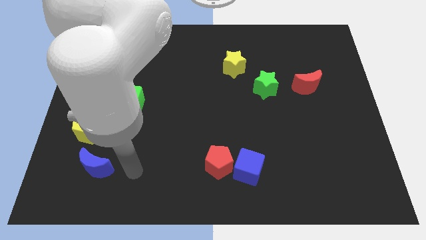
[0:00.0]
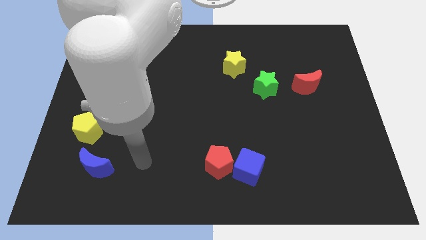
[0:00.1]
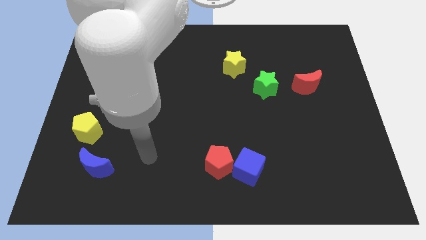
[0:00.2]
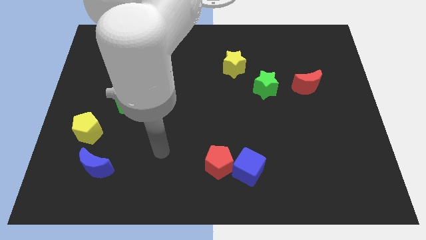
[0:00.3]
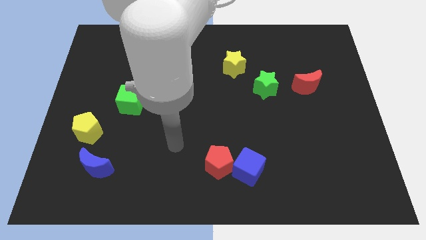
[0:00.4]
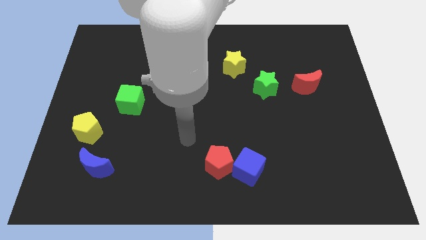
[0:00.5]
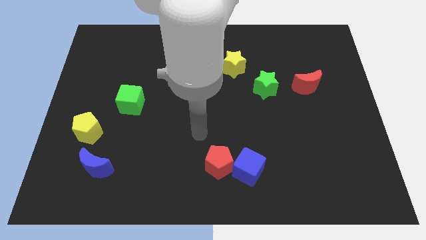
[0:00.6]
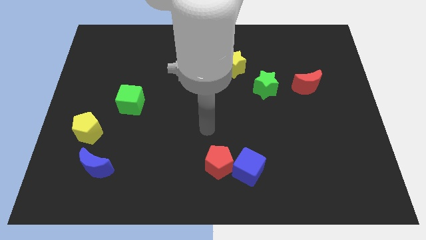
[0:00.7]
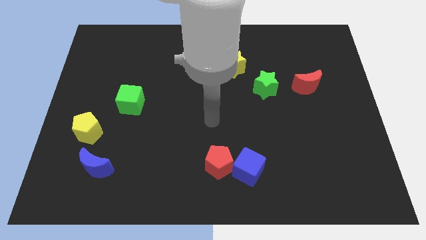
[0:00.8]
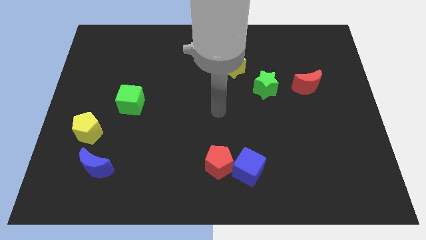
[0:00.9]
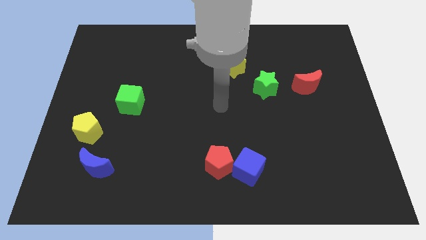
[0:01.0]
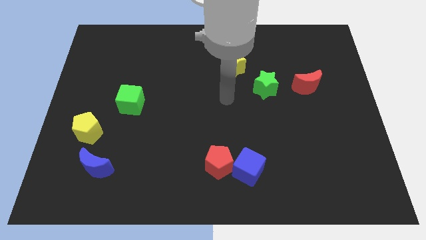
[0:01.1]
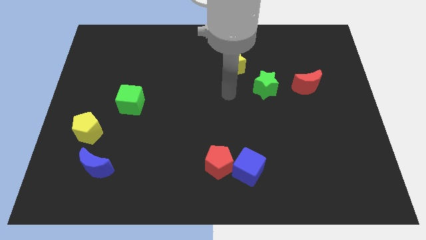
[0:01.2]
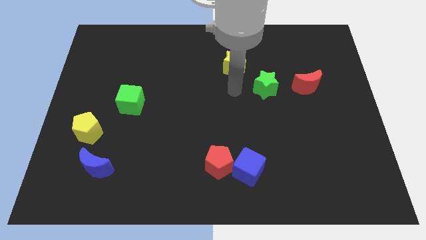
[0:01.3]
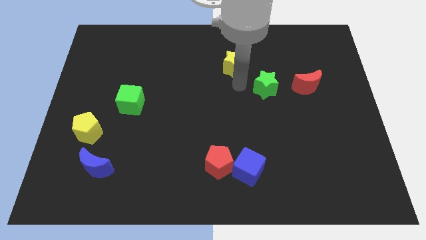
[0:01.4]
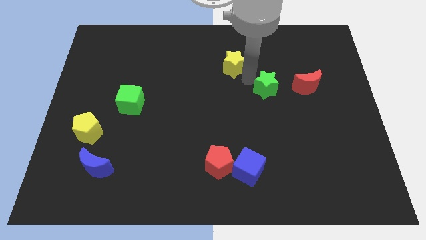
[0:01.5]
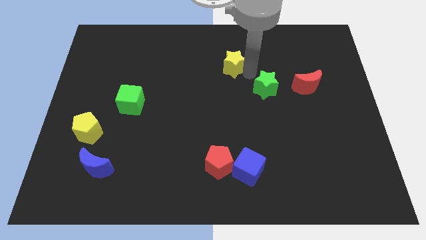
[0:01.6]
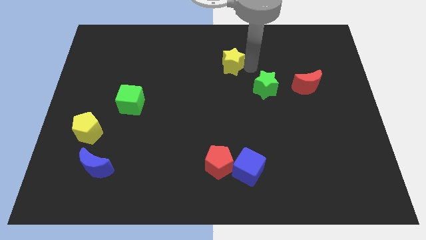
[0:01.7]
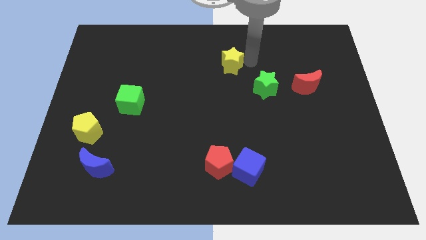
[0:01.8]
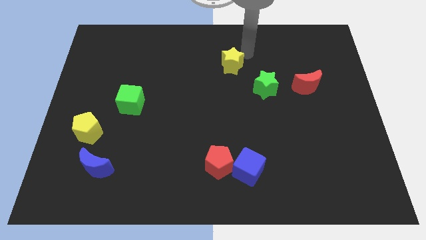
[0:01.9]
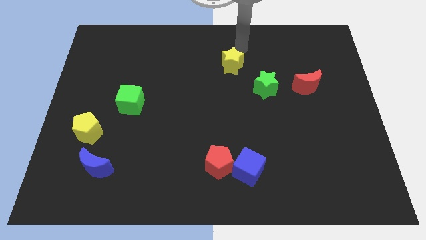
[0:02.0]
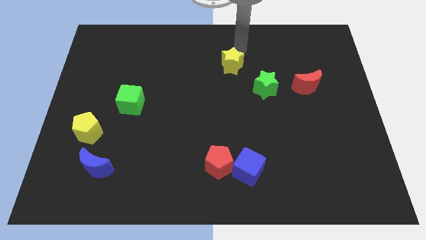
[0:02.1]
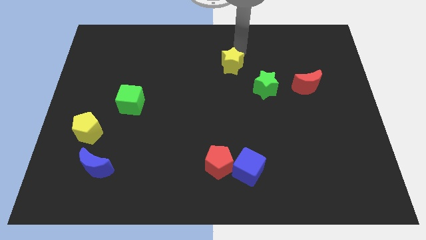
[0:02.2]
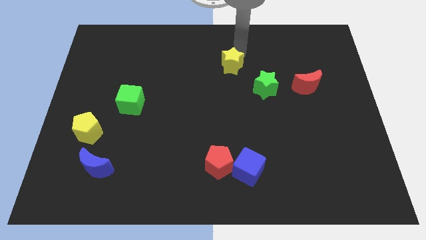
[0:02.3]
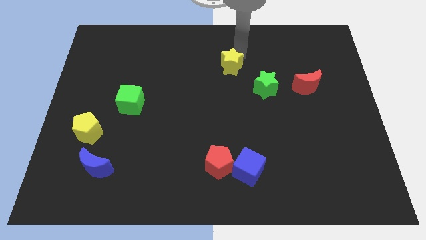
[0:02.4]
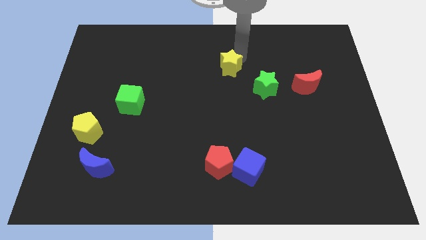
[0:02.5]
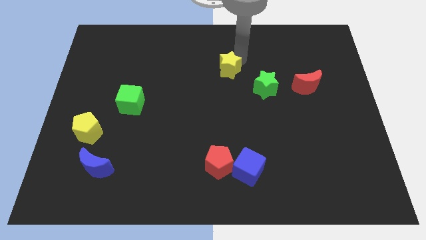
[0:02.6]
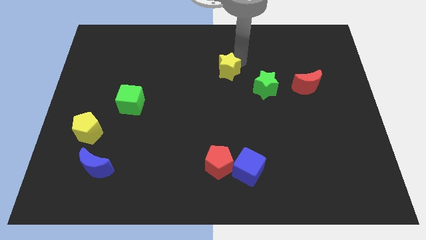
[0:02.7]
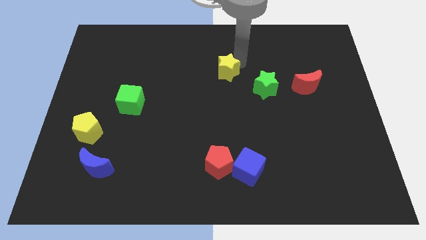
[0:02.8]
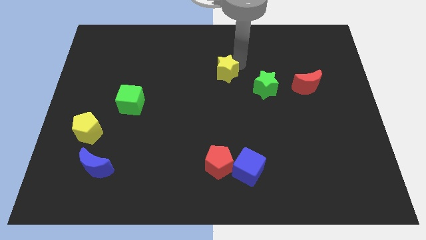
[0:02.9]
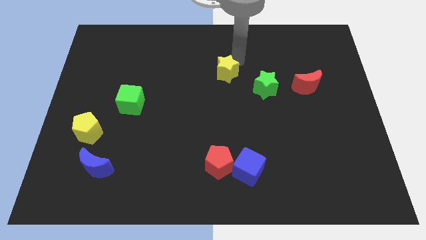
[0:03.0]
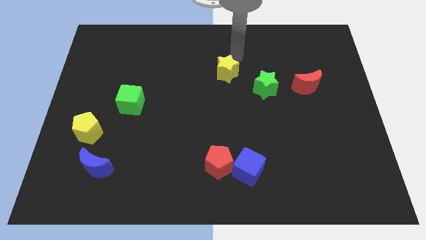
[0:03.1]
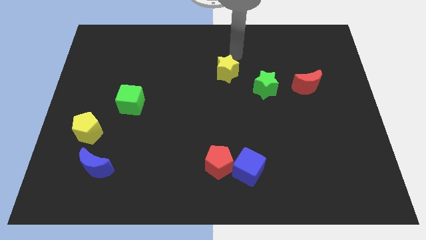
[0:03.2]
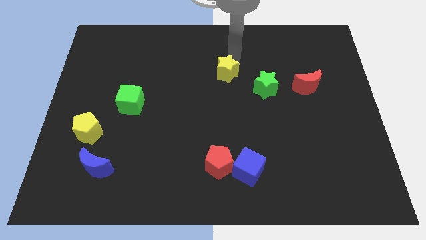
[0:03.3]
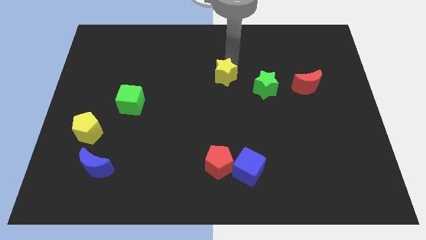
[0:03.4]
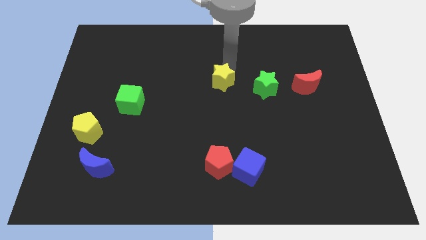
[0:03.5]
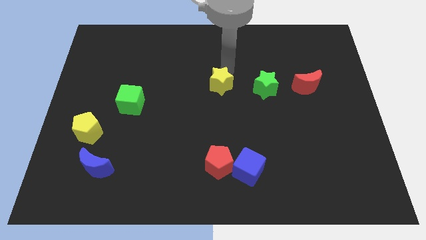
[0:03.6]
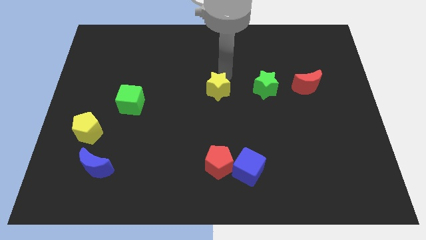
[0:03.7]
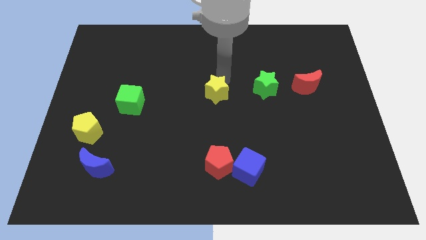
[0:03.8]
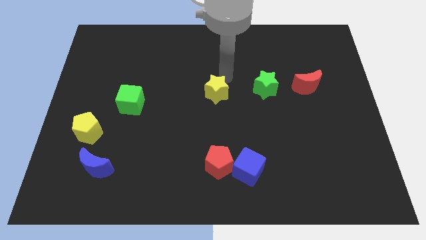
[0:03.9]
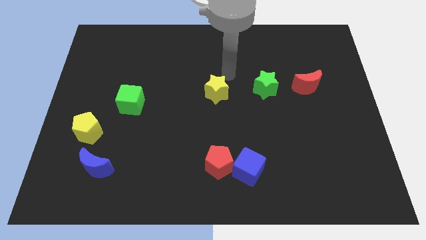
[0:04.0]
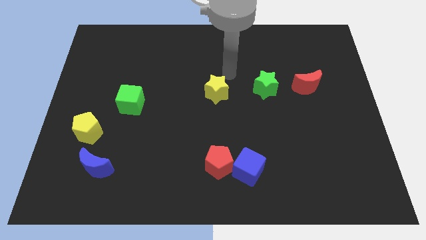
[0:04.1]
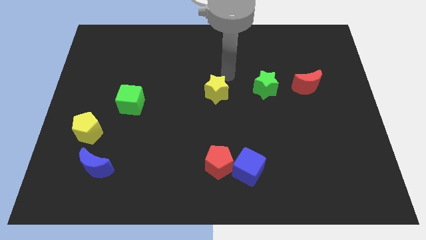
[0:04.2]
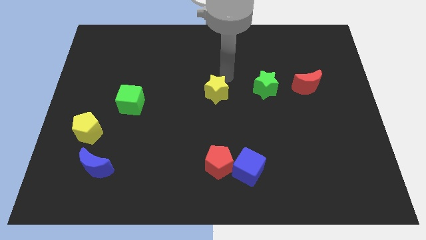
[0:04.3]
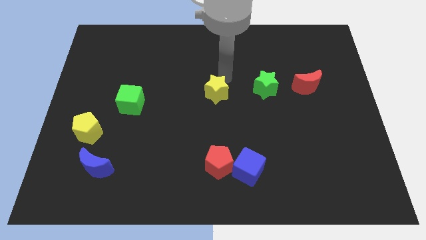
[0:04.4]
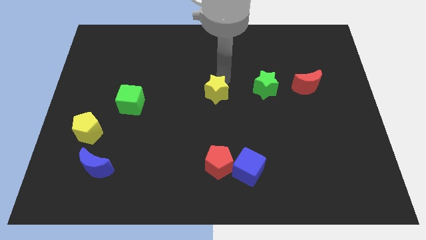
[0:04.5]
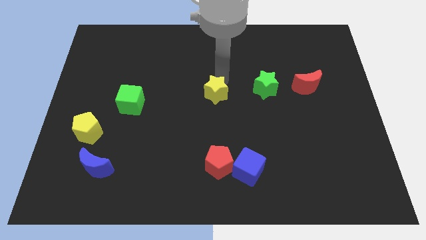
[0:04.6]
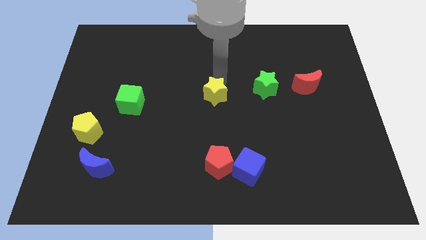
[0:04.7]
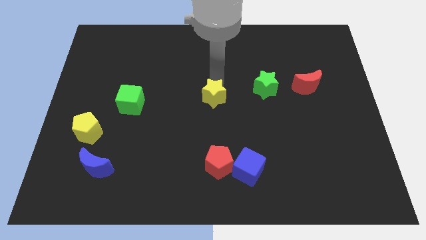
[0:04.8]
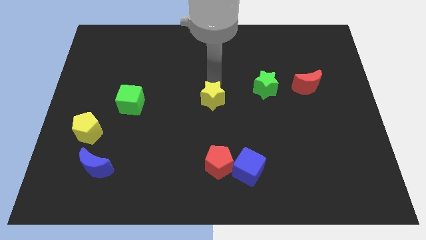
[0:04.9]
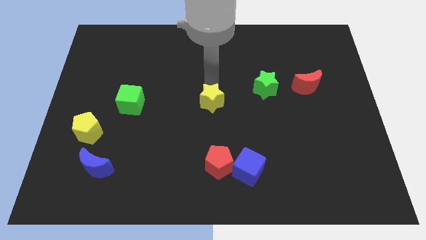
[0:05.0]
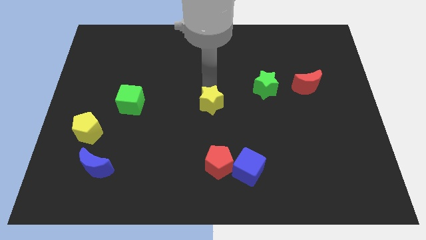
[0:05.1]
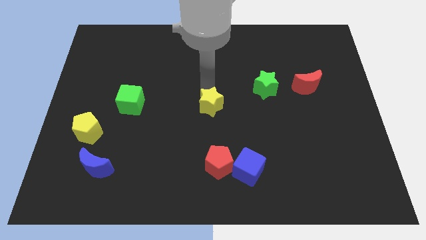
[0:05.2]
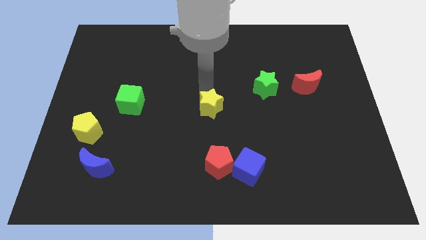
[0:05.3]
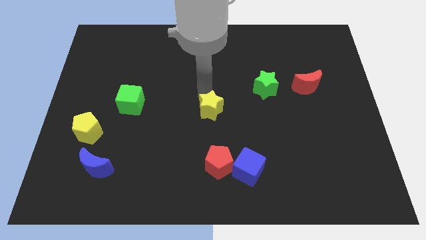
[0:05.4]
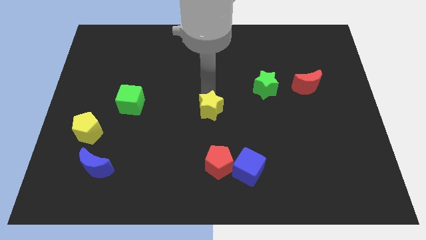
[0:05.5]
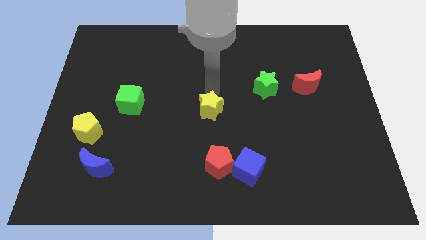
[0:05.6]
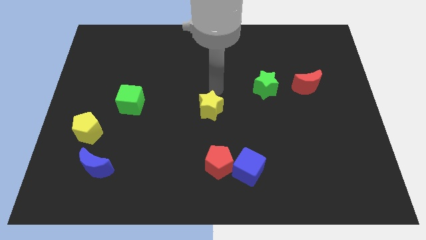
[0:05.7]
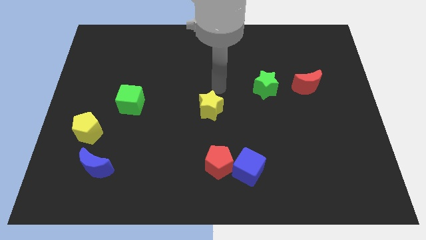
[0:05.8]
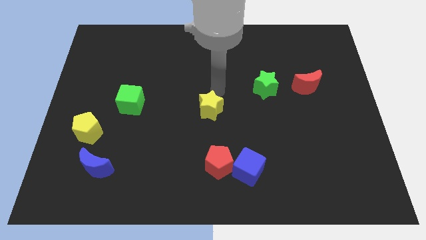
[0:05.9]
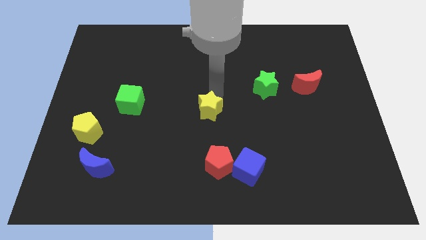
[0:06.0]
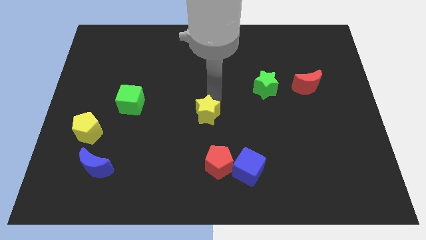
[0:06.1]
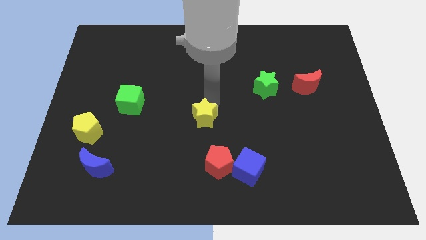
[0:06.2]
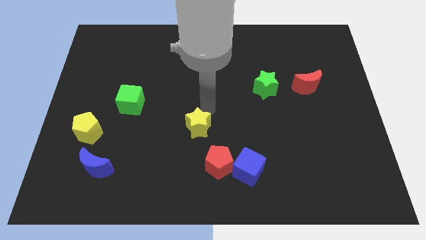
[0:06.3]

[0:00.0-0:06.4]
push the yellow star diagonally up and to the left of the red pentagon
